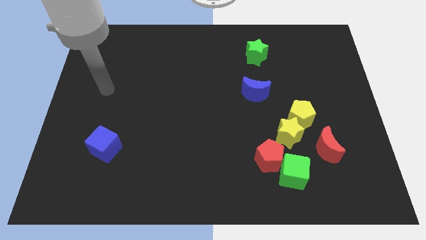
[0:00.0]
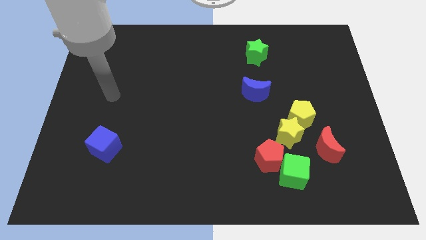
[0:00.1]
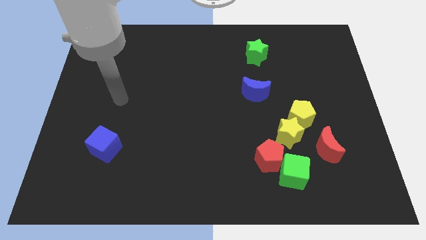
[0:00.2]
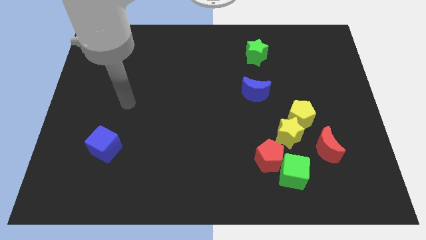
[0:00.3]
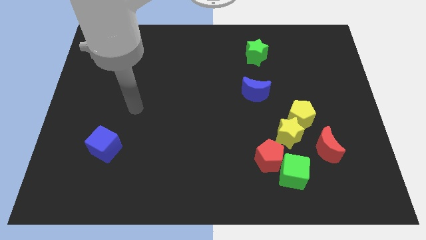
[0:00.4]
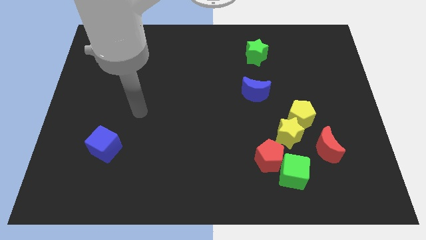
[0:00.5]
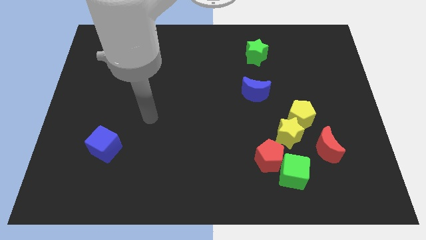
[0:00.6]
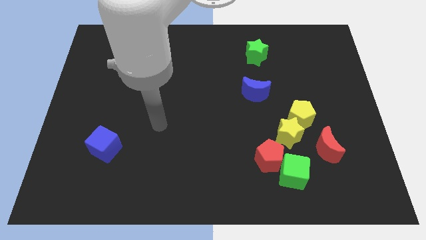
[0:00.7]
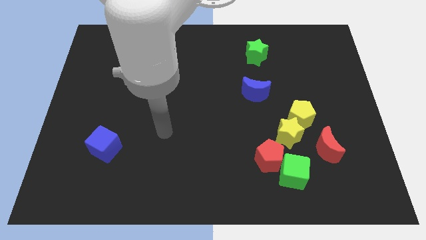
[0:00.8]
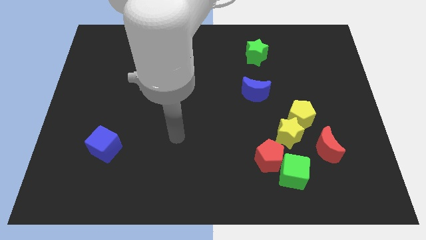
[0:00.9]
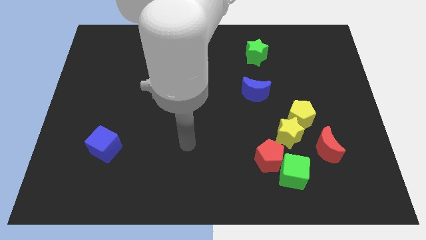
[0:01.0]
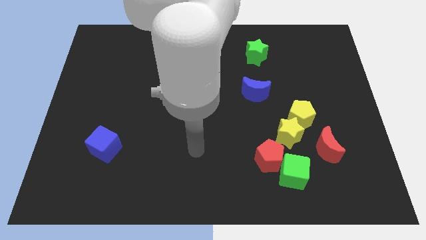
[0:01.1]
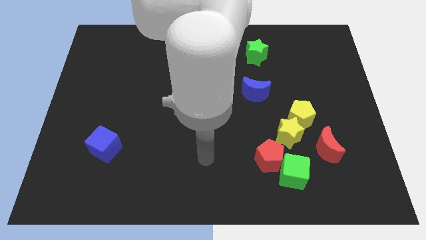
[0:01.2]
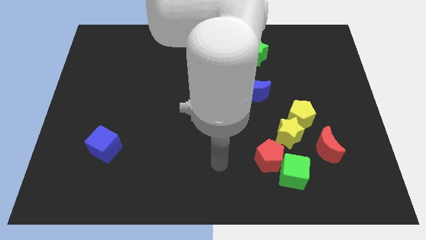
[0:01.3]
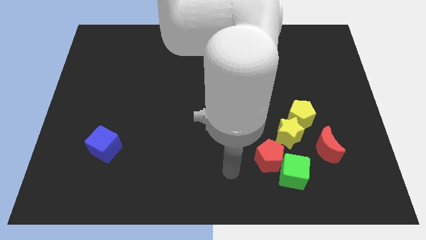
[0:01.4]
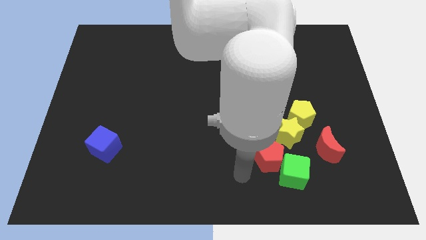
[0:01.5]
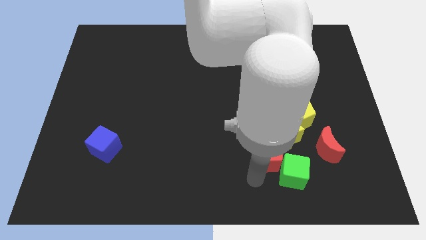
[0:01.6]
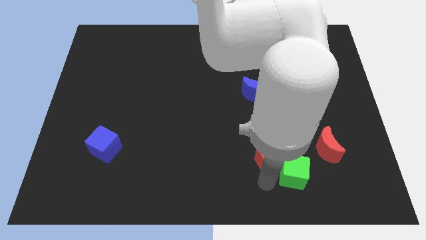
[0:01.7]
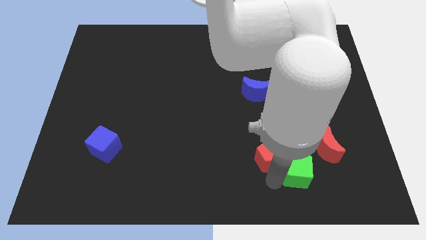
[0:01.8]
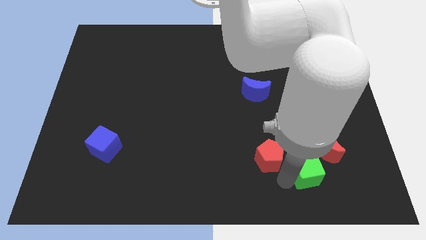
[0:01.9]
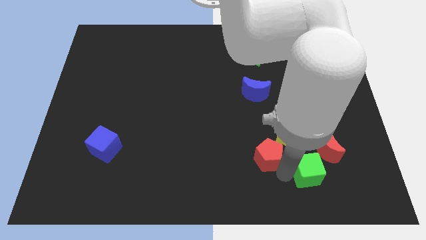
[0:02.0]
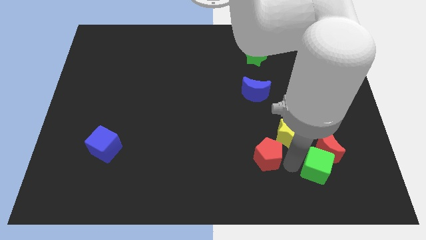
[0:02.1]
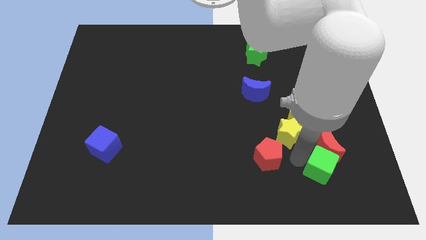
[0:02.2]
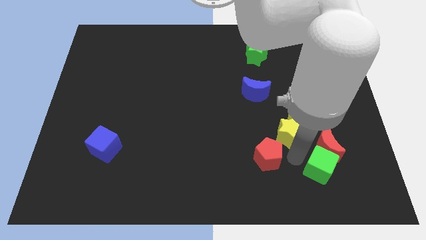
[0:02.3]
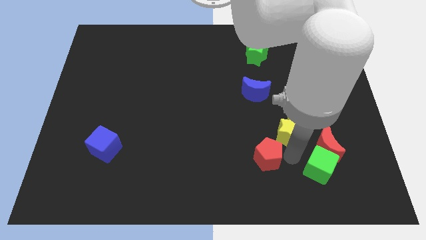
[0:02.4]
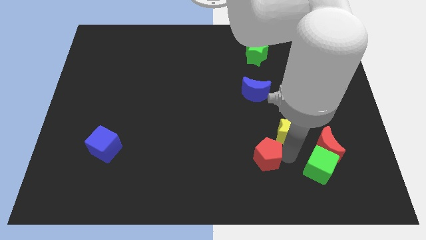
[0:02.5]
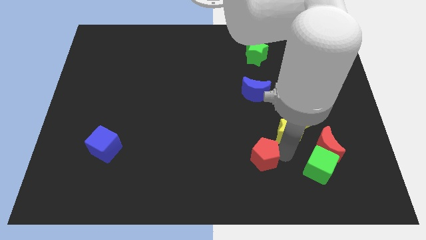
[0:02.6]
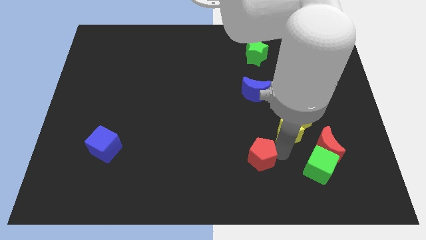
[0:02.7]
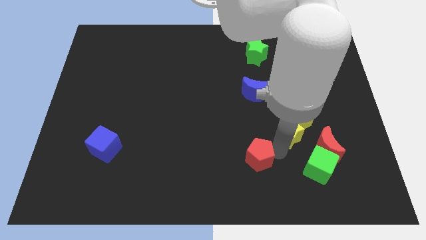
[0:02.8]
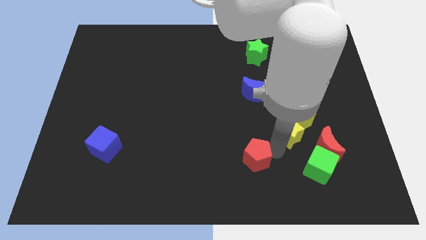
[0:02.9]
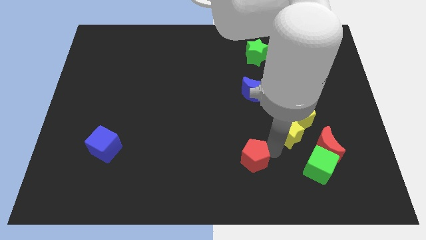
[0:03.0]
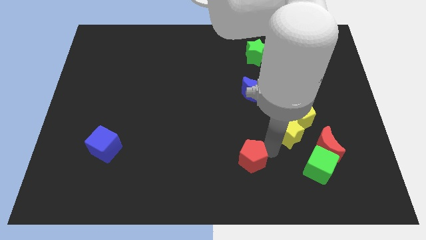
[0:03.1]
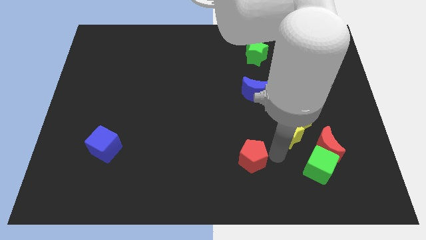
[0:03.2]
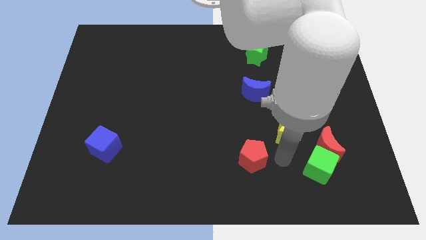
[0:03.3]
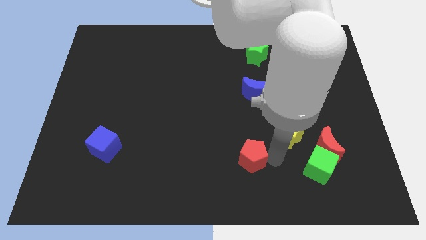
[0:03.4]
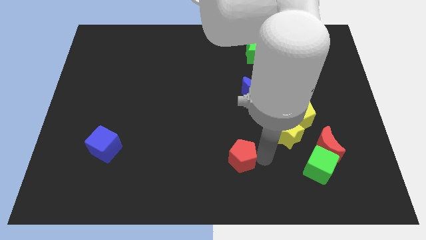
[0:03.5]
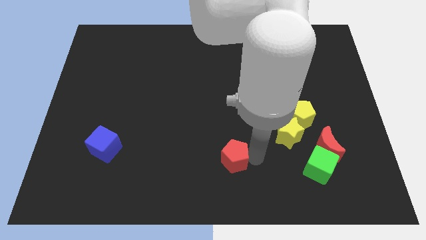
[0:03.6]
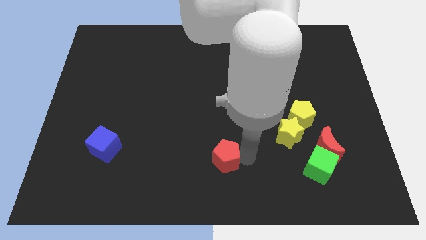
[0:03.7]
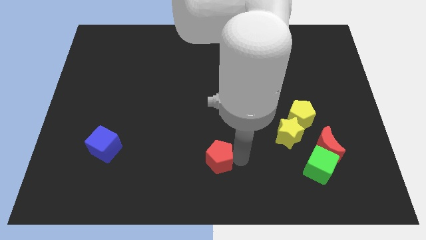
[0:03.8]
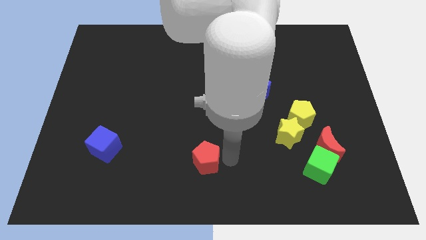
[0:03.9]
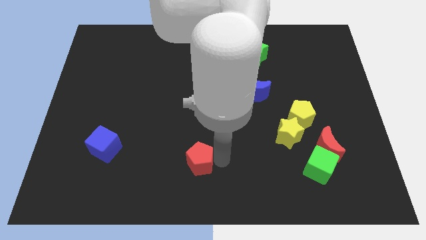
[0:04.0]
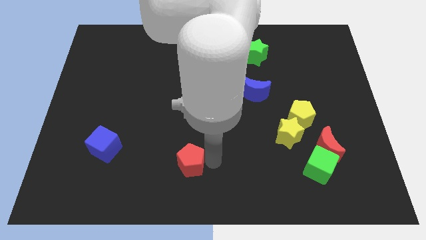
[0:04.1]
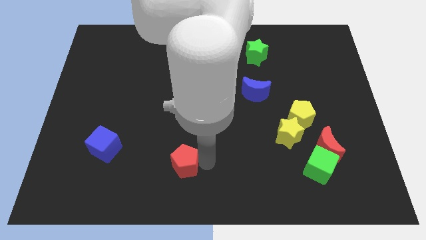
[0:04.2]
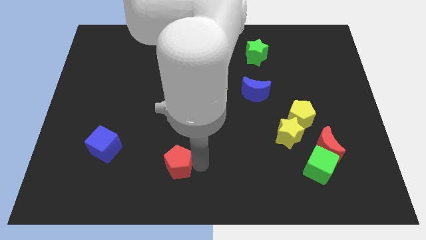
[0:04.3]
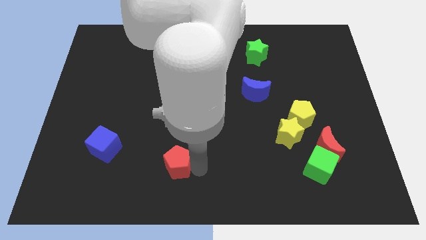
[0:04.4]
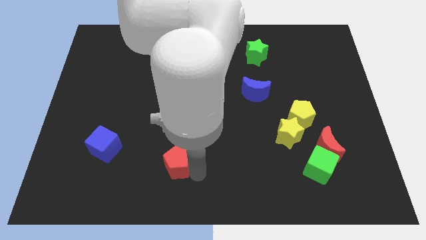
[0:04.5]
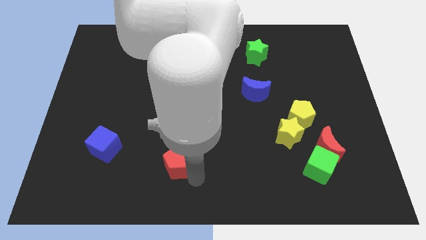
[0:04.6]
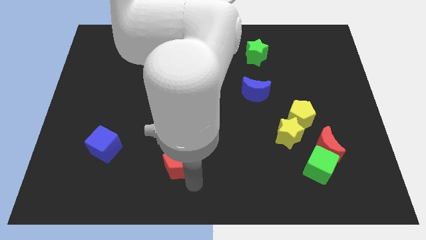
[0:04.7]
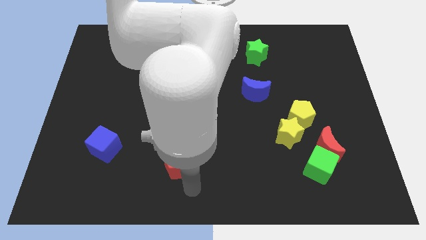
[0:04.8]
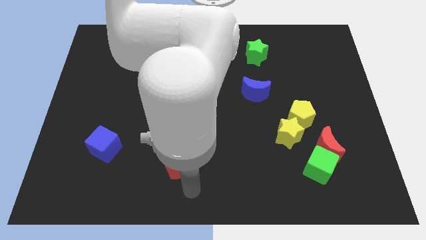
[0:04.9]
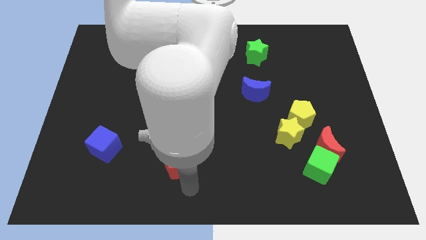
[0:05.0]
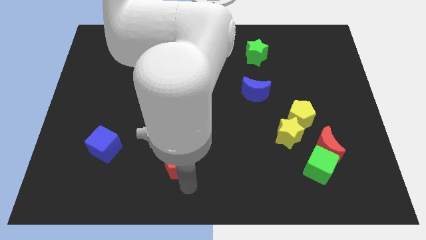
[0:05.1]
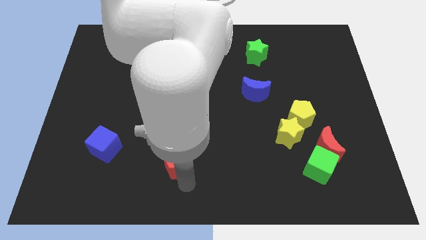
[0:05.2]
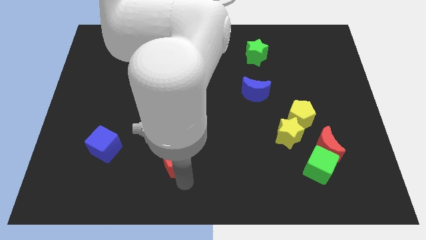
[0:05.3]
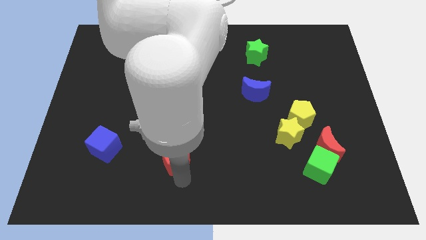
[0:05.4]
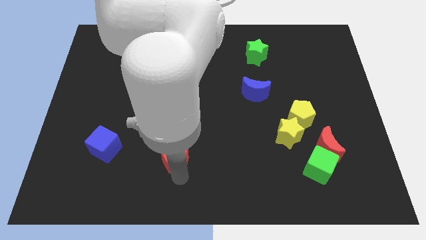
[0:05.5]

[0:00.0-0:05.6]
push the red pentagon to the right side of the blue cube

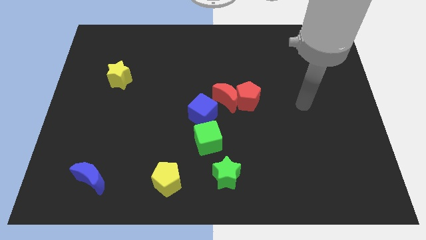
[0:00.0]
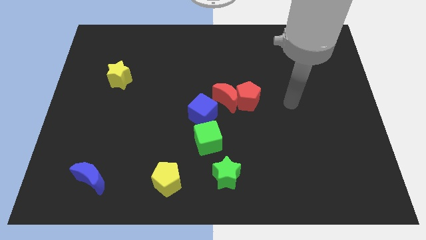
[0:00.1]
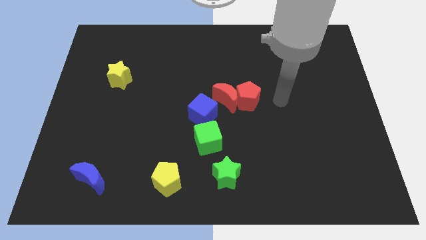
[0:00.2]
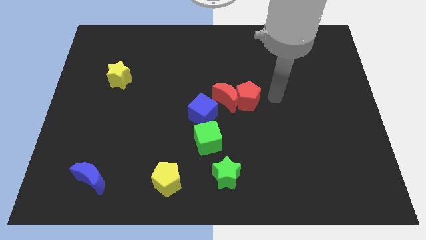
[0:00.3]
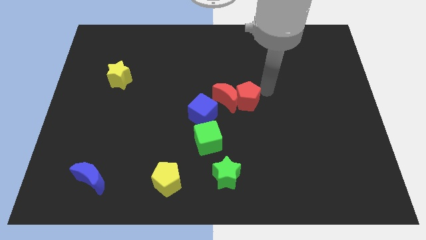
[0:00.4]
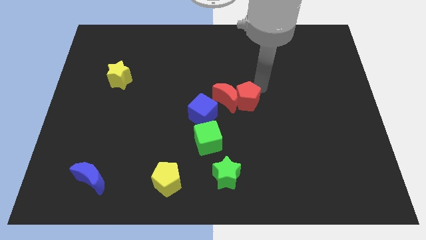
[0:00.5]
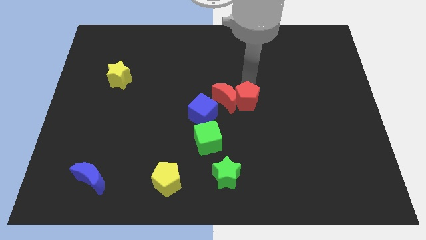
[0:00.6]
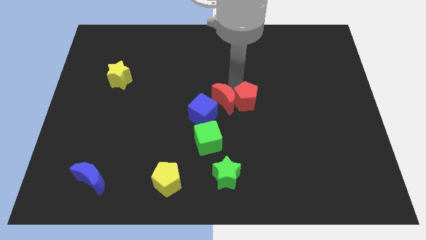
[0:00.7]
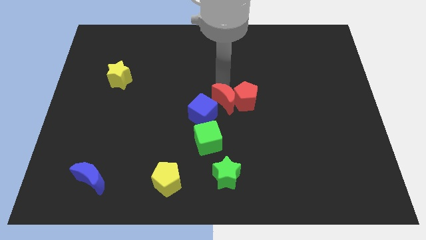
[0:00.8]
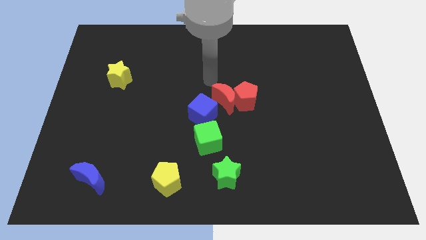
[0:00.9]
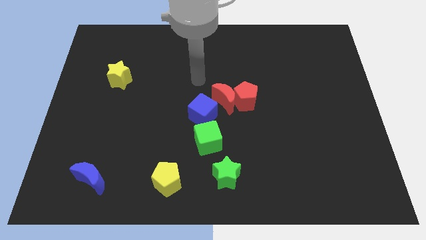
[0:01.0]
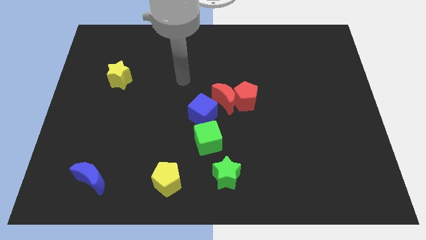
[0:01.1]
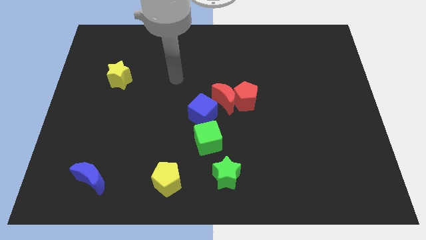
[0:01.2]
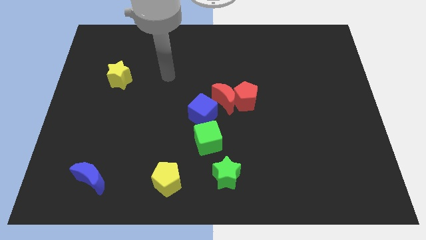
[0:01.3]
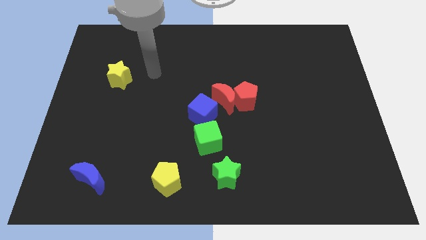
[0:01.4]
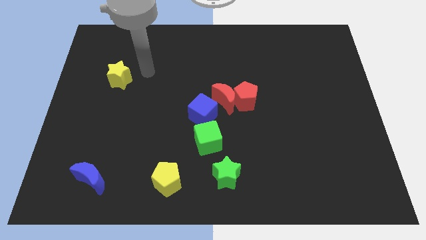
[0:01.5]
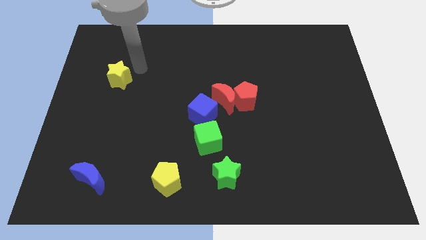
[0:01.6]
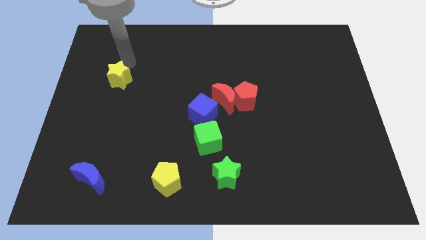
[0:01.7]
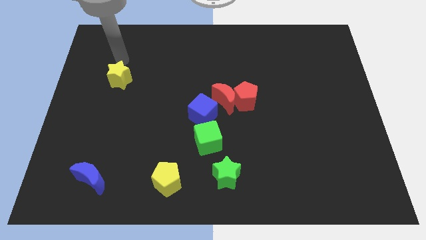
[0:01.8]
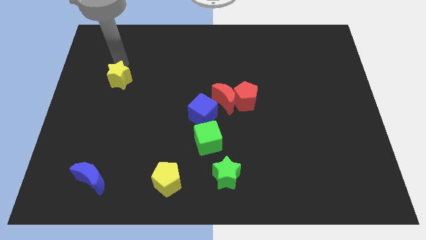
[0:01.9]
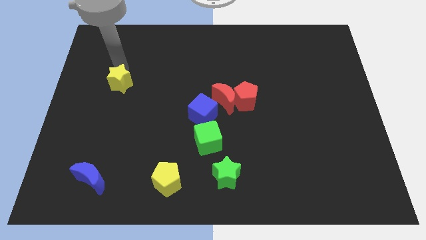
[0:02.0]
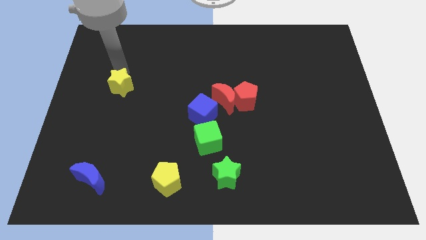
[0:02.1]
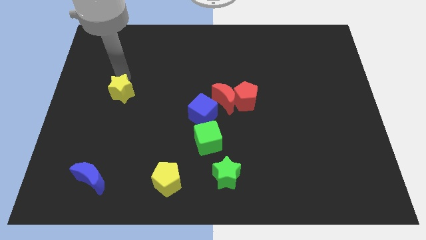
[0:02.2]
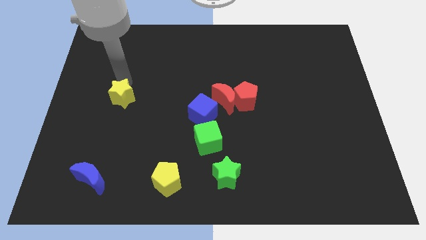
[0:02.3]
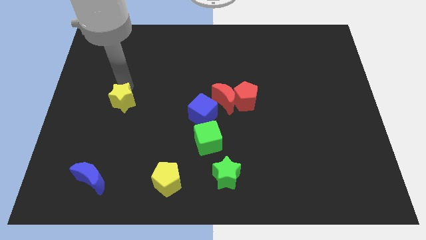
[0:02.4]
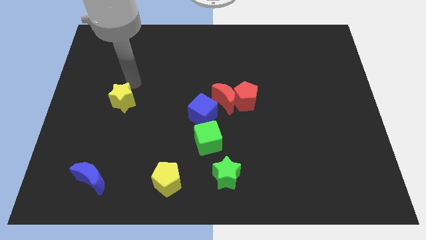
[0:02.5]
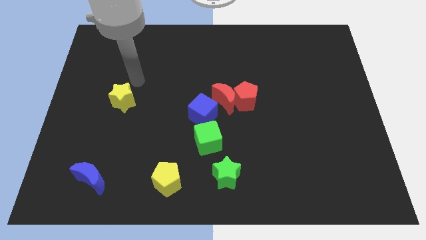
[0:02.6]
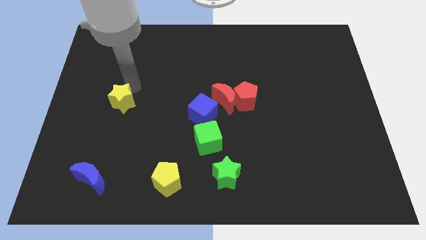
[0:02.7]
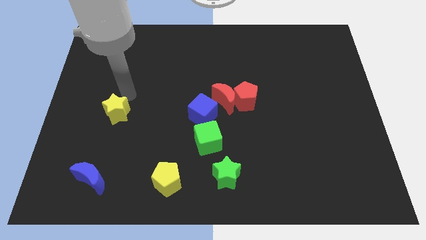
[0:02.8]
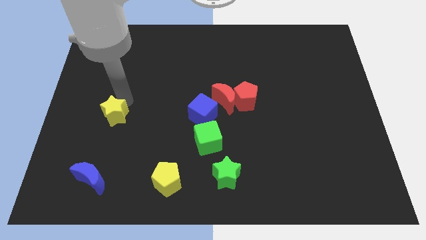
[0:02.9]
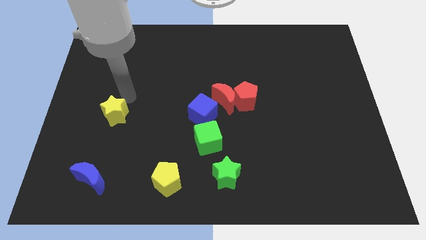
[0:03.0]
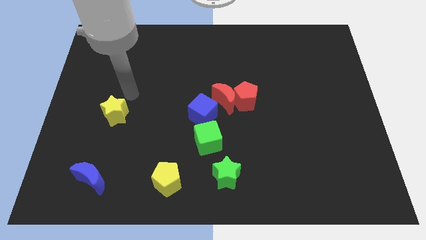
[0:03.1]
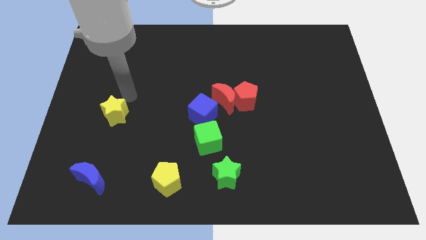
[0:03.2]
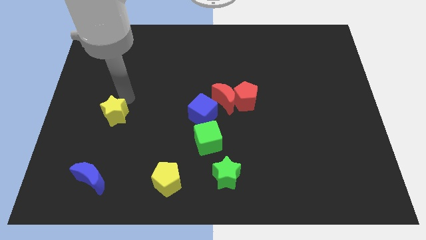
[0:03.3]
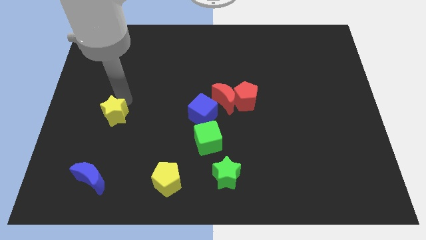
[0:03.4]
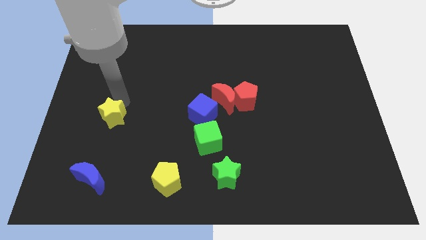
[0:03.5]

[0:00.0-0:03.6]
slide the yellow star to the top of the blue moon
